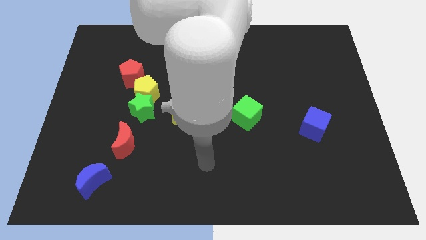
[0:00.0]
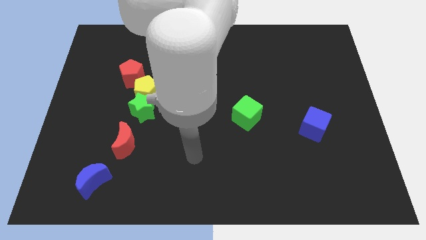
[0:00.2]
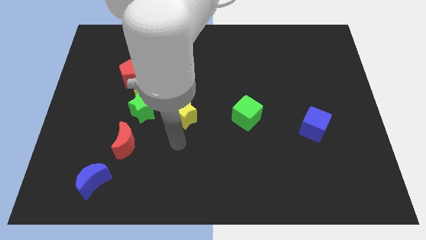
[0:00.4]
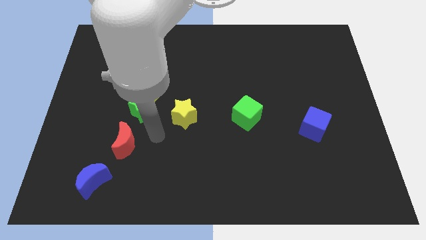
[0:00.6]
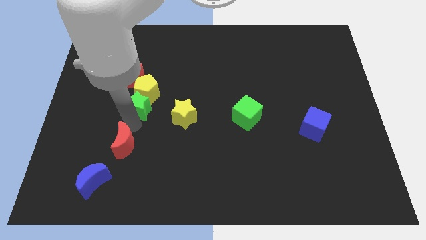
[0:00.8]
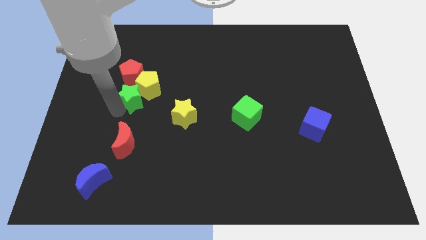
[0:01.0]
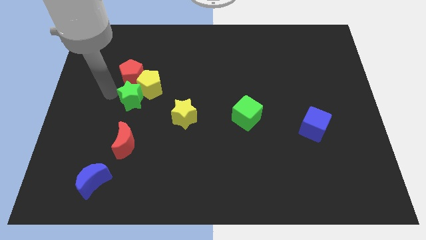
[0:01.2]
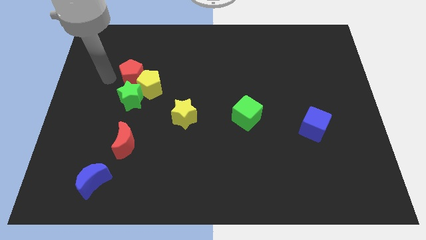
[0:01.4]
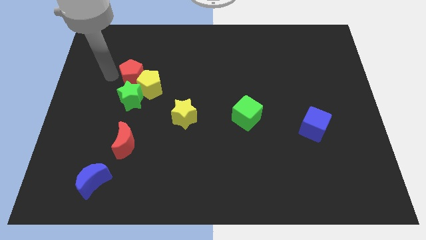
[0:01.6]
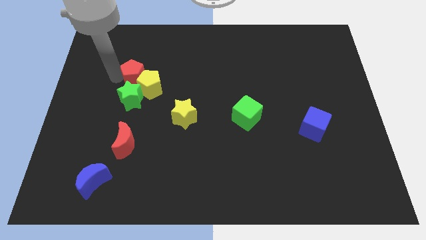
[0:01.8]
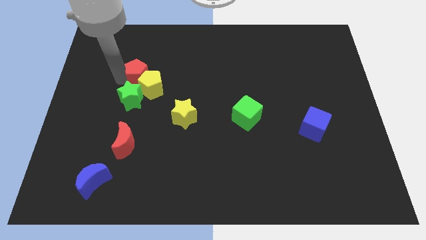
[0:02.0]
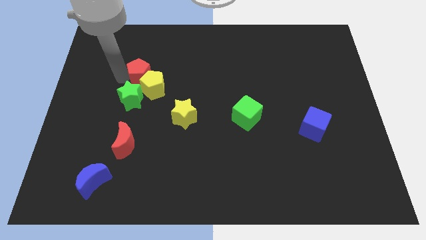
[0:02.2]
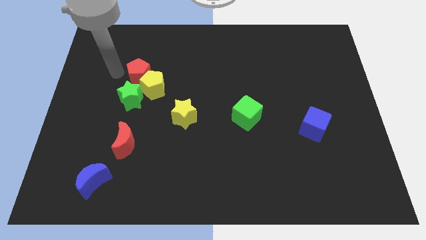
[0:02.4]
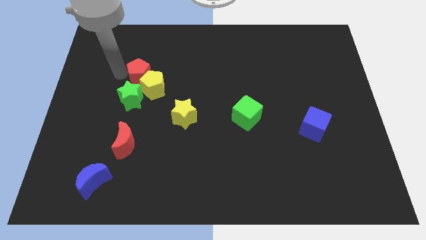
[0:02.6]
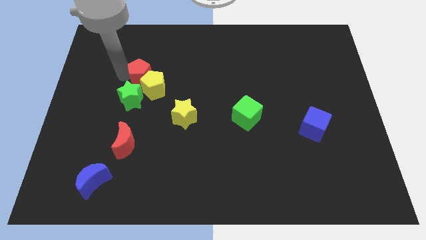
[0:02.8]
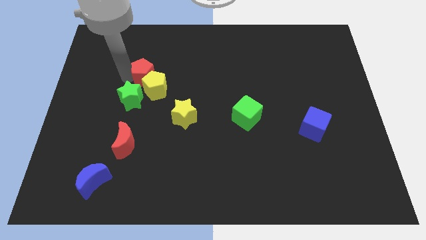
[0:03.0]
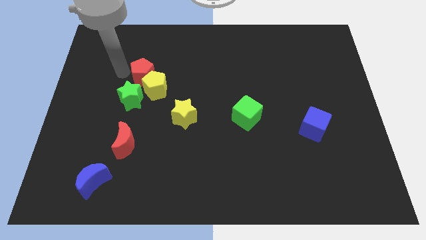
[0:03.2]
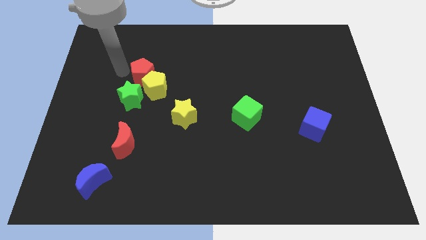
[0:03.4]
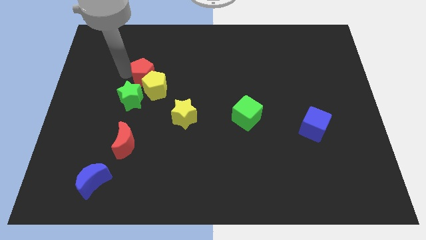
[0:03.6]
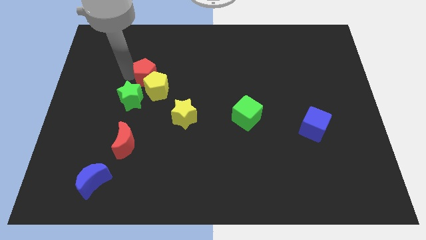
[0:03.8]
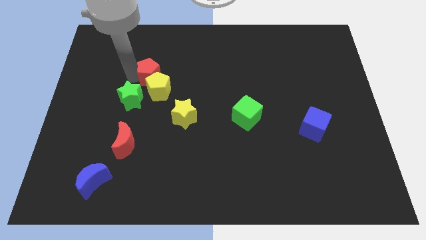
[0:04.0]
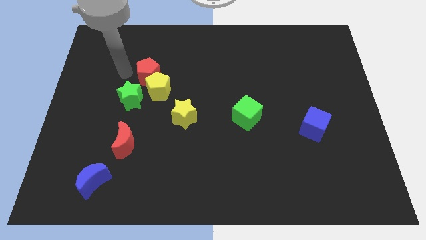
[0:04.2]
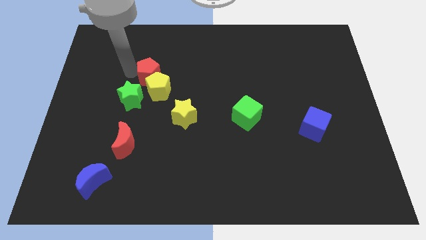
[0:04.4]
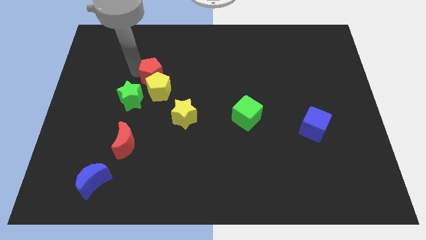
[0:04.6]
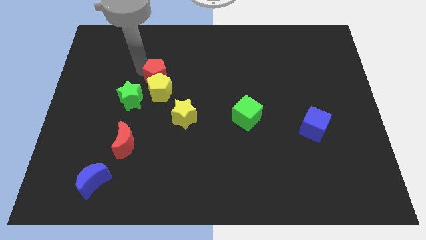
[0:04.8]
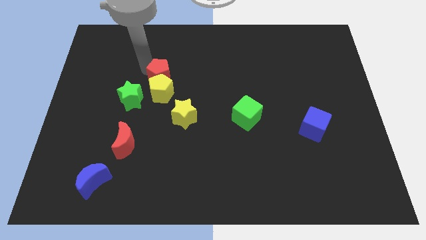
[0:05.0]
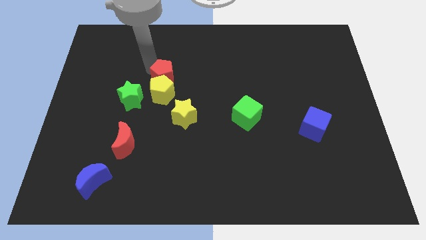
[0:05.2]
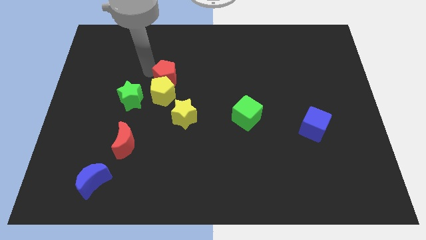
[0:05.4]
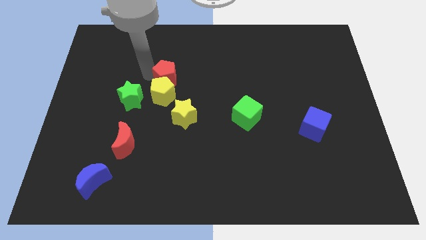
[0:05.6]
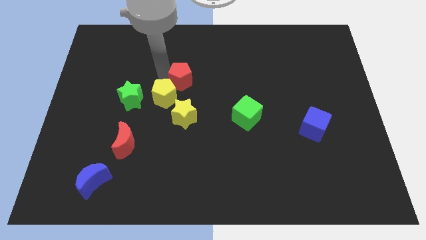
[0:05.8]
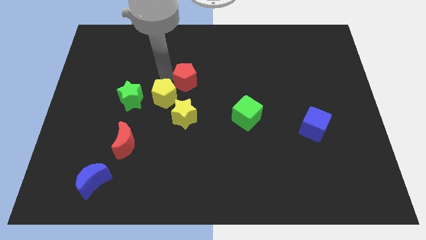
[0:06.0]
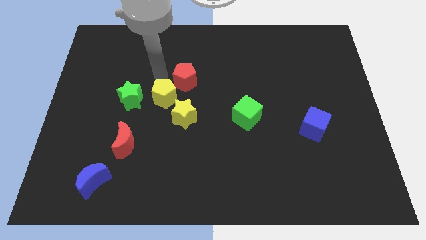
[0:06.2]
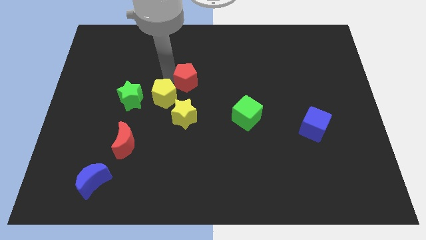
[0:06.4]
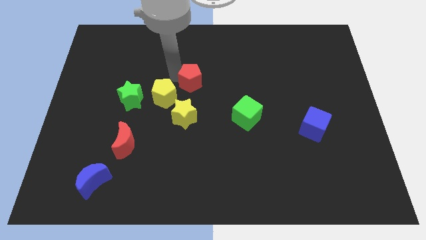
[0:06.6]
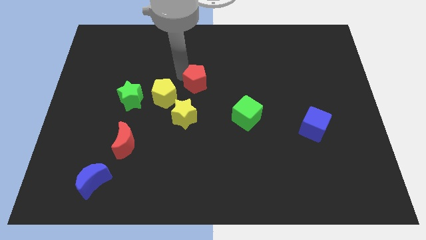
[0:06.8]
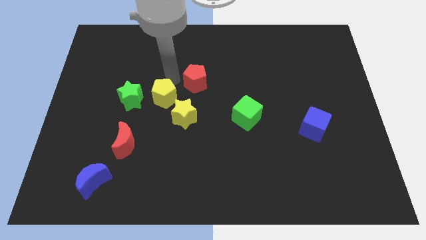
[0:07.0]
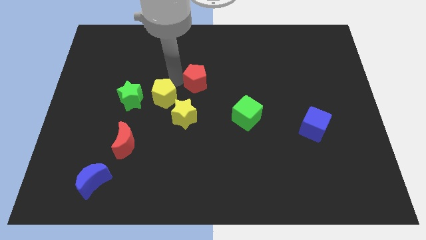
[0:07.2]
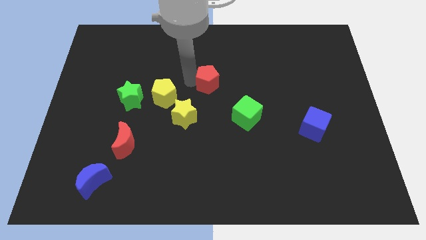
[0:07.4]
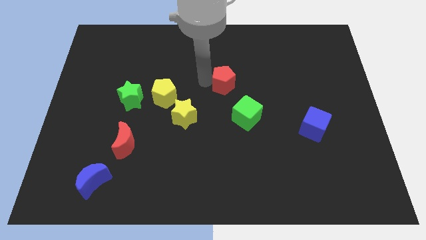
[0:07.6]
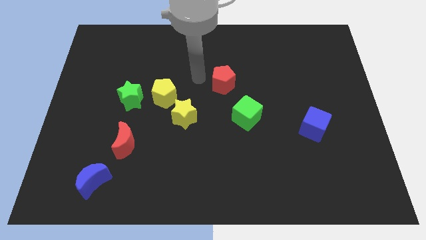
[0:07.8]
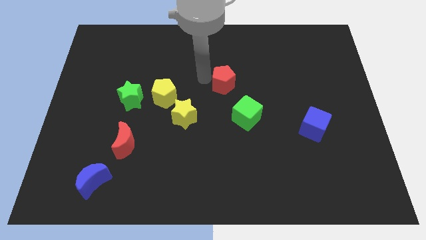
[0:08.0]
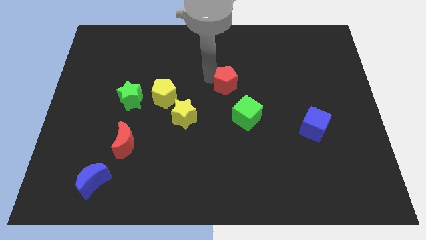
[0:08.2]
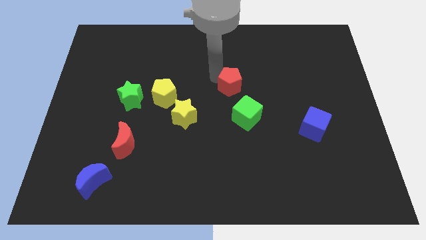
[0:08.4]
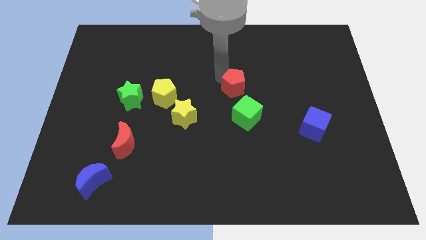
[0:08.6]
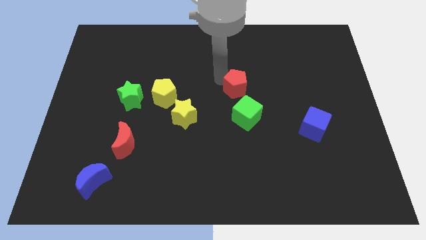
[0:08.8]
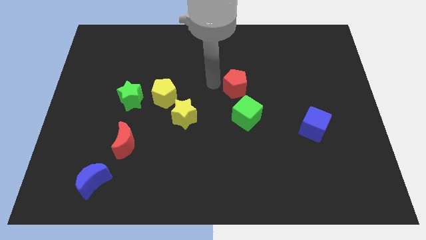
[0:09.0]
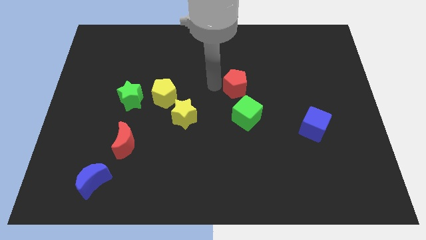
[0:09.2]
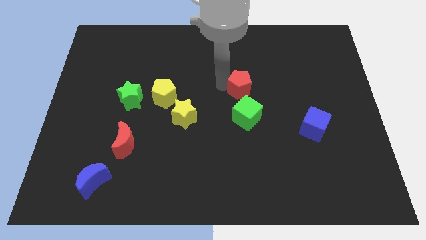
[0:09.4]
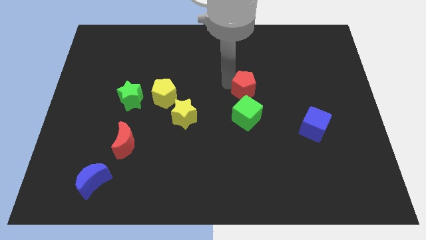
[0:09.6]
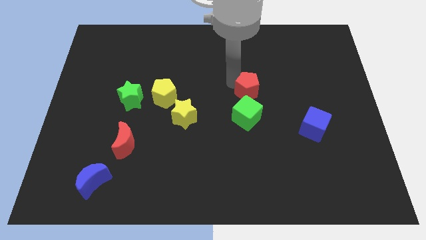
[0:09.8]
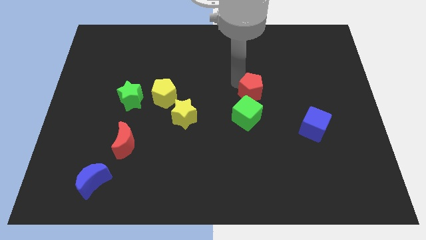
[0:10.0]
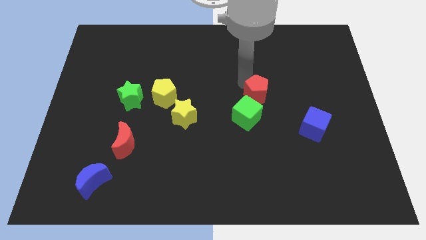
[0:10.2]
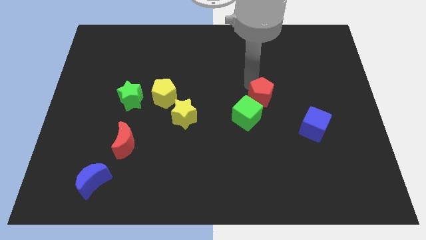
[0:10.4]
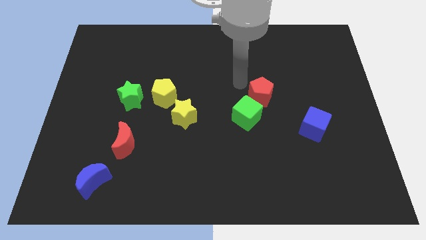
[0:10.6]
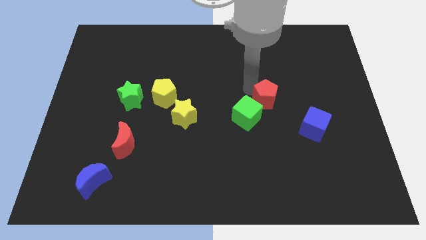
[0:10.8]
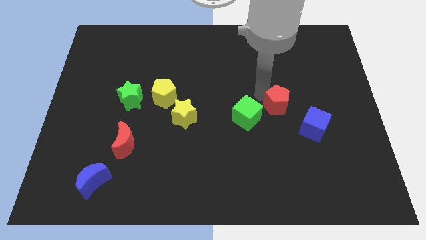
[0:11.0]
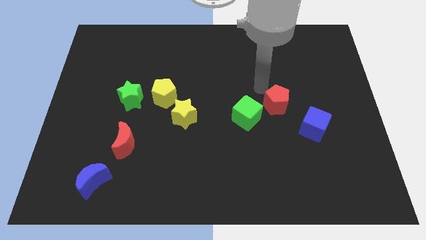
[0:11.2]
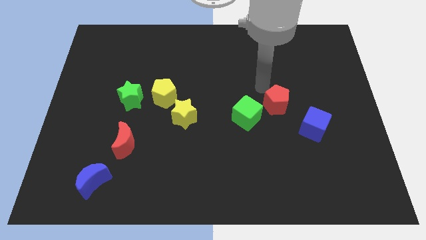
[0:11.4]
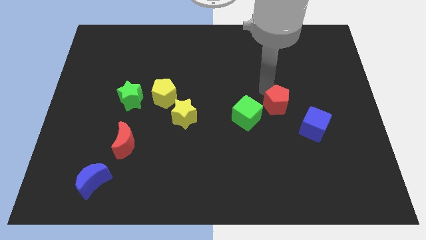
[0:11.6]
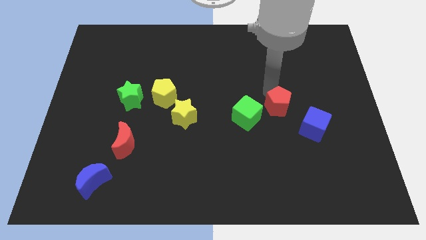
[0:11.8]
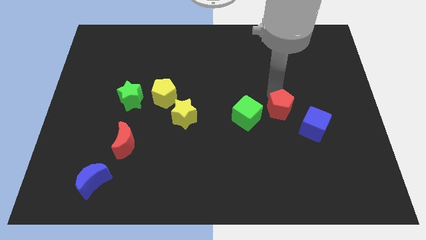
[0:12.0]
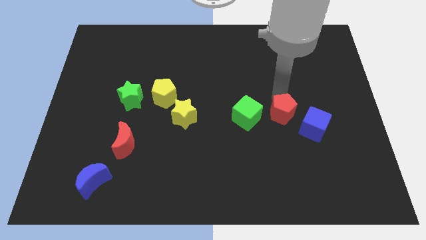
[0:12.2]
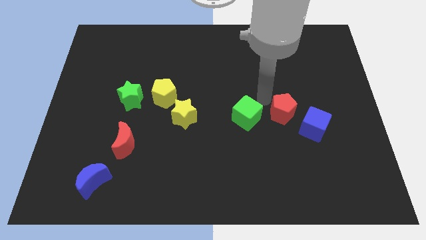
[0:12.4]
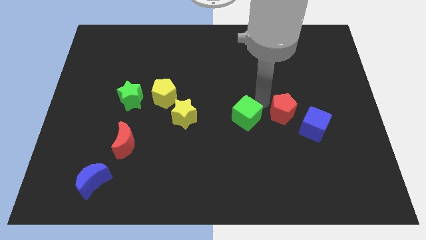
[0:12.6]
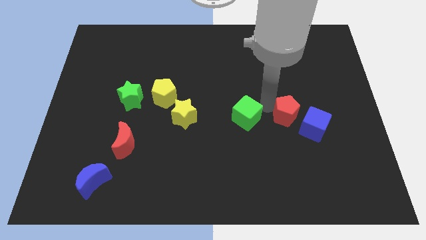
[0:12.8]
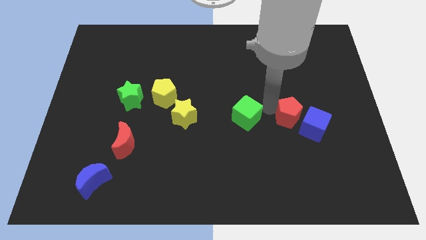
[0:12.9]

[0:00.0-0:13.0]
slide the red pentagon towards the blue cube

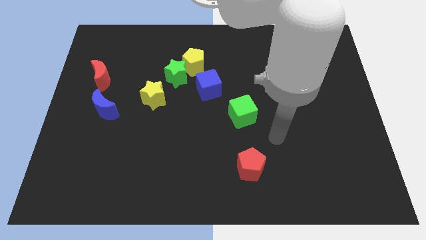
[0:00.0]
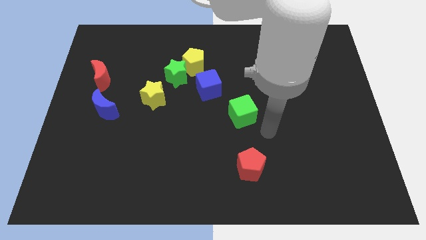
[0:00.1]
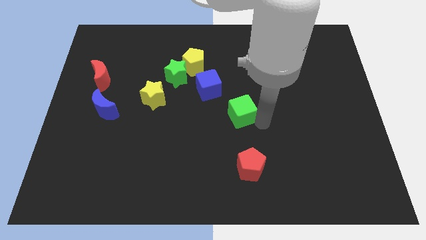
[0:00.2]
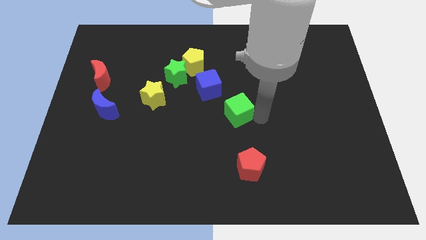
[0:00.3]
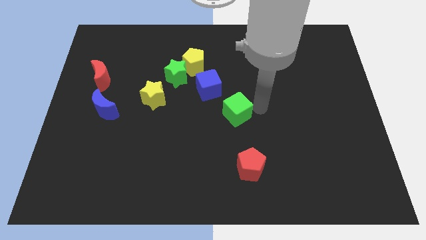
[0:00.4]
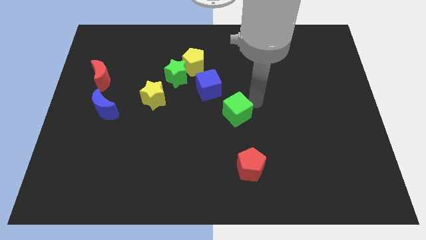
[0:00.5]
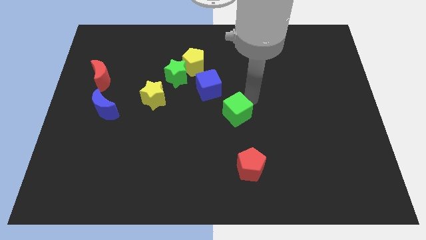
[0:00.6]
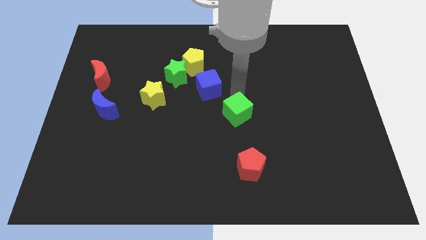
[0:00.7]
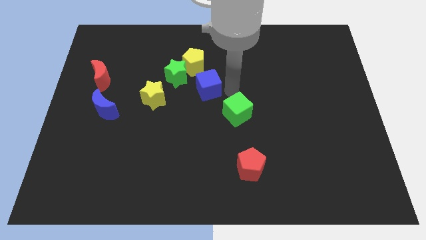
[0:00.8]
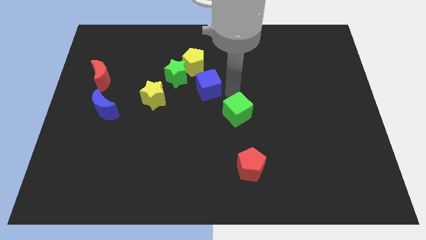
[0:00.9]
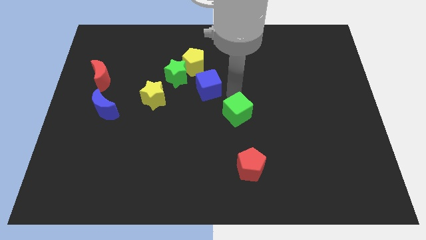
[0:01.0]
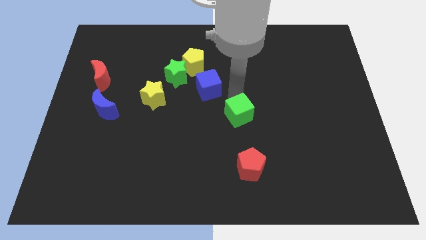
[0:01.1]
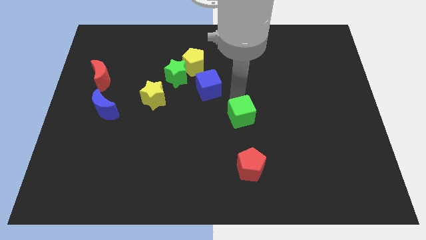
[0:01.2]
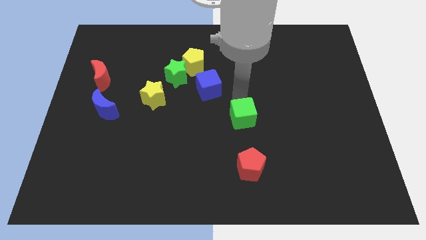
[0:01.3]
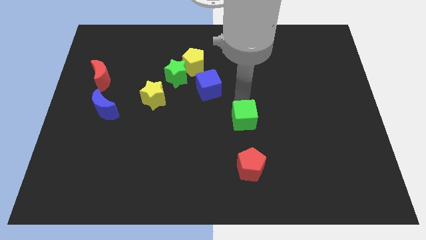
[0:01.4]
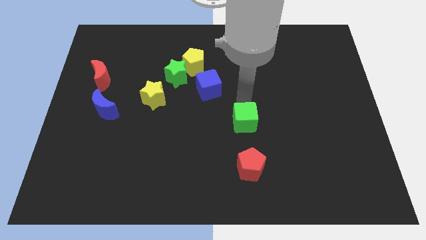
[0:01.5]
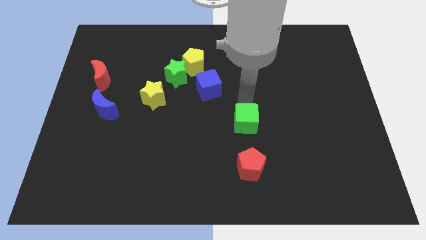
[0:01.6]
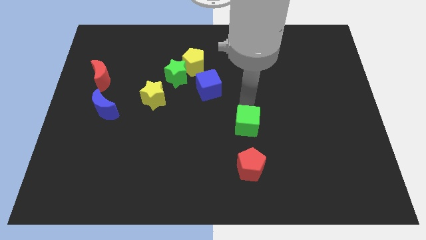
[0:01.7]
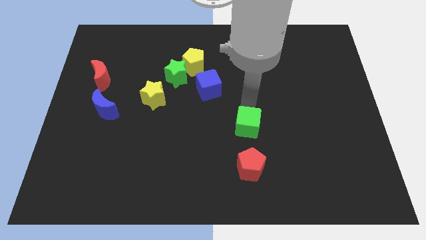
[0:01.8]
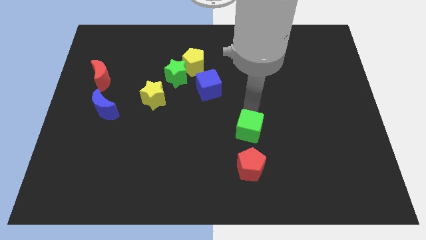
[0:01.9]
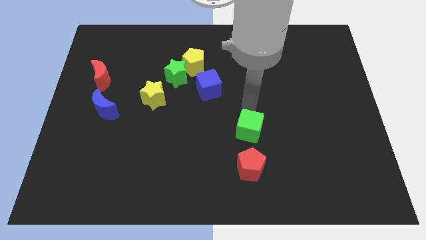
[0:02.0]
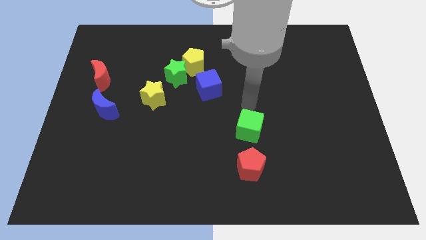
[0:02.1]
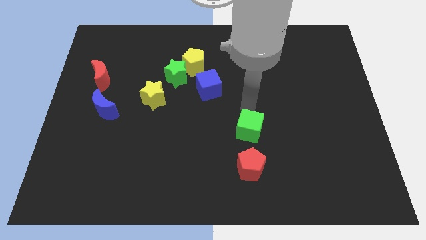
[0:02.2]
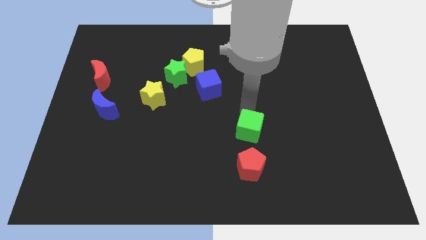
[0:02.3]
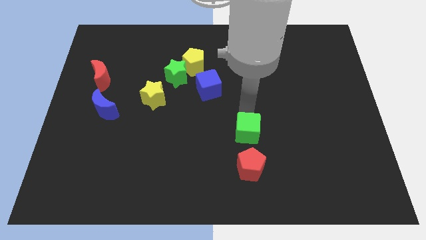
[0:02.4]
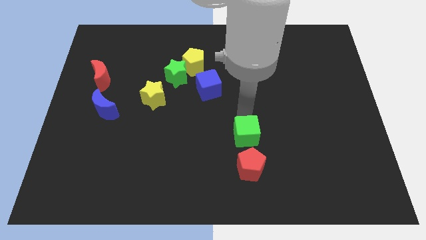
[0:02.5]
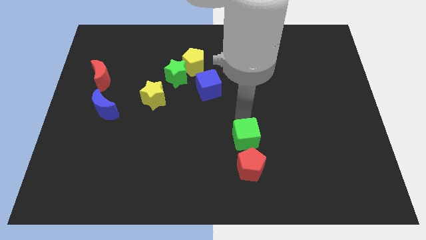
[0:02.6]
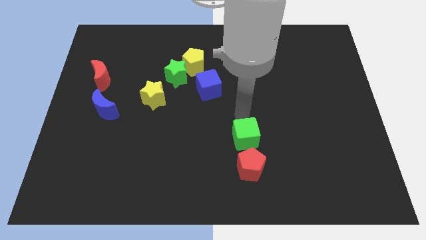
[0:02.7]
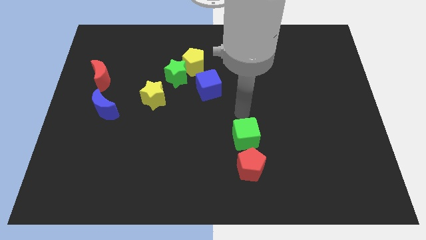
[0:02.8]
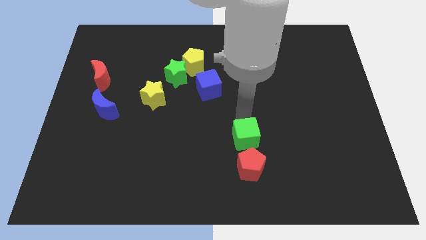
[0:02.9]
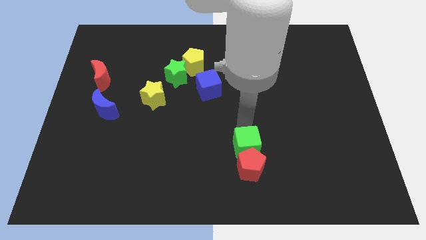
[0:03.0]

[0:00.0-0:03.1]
push the green cube close to the red pentagon
